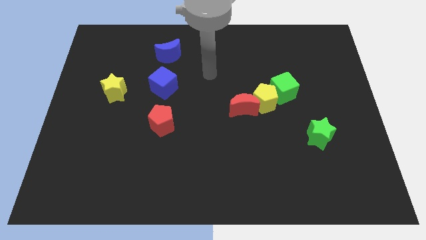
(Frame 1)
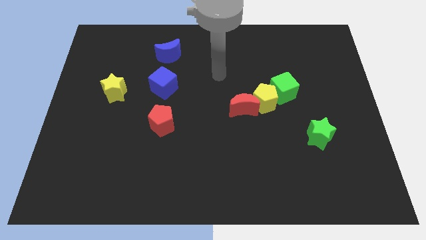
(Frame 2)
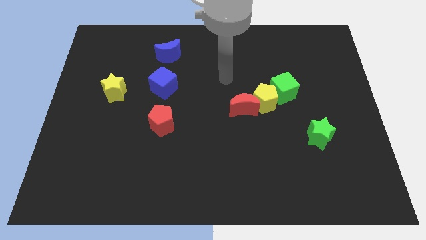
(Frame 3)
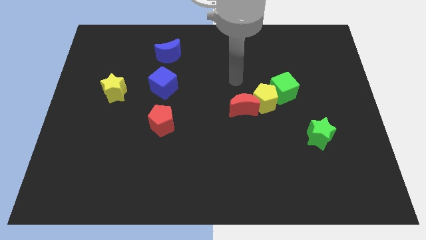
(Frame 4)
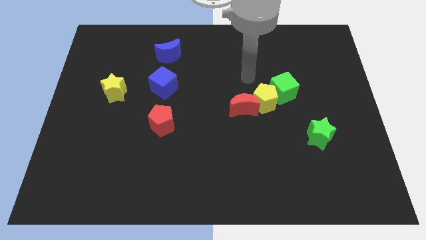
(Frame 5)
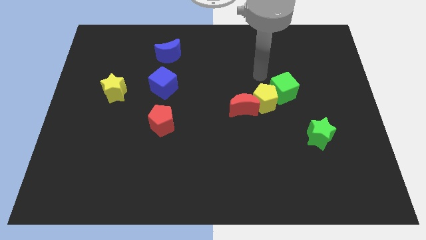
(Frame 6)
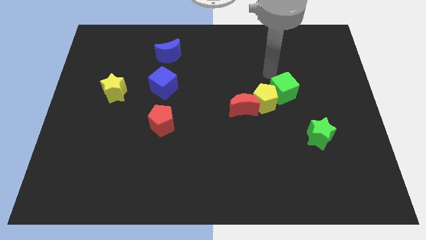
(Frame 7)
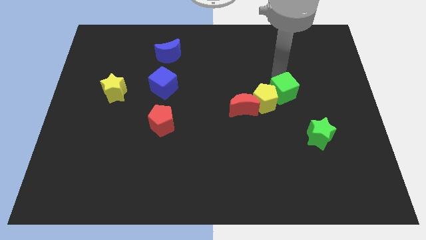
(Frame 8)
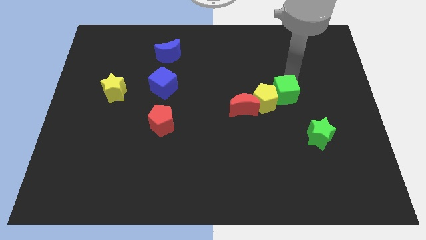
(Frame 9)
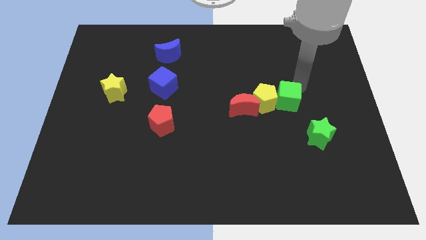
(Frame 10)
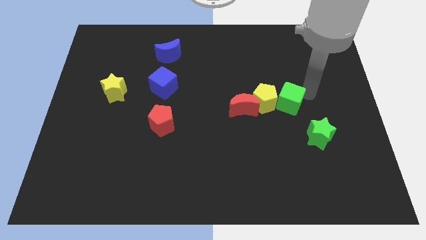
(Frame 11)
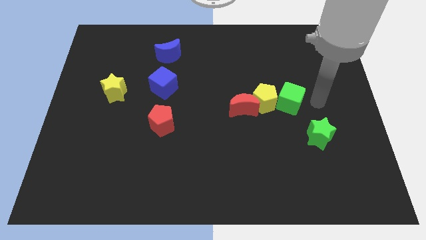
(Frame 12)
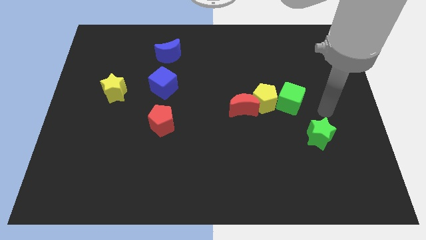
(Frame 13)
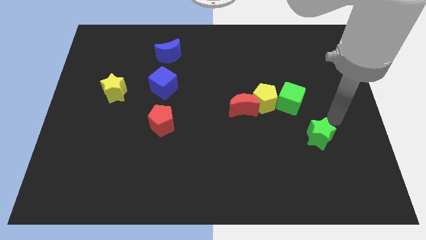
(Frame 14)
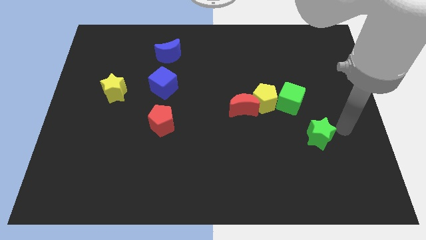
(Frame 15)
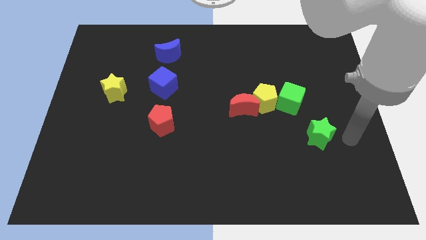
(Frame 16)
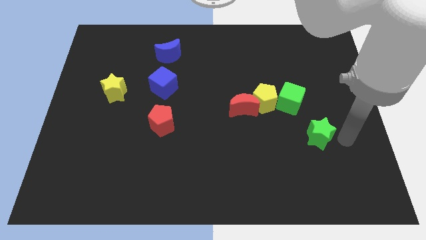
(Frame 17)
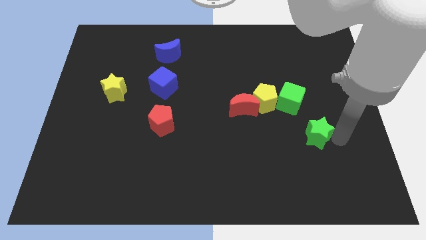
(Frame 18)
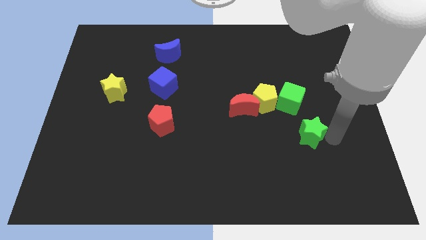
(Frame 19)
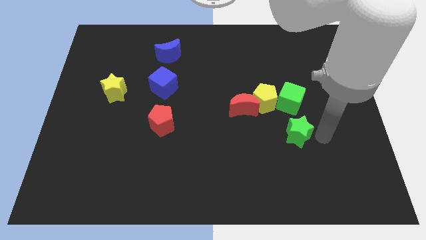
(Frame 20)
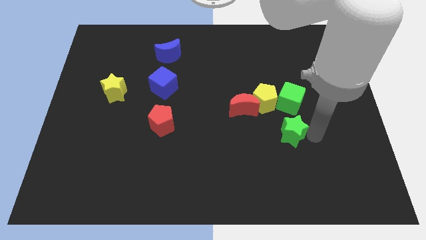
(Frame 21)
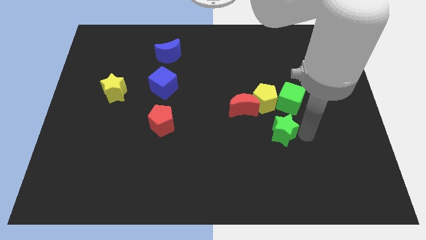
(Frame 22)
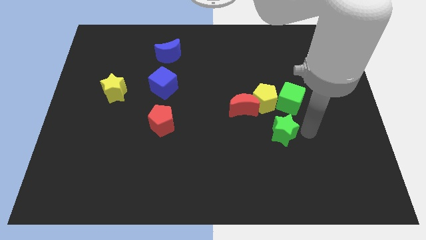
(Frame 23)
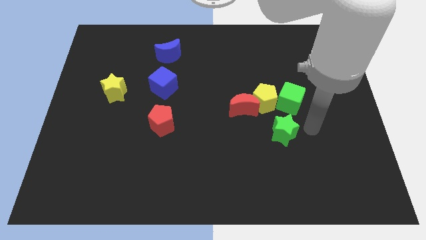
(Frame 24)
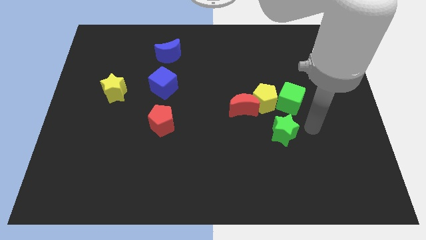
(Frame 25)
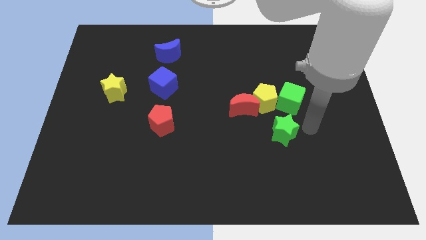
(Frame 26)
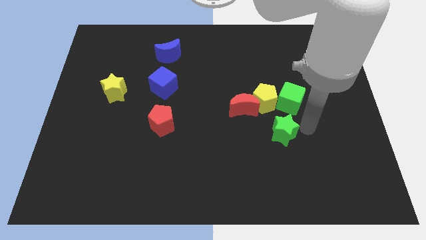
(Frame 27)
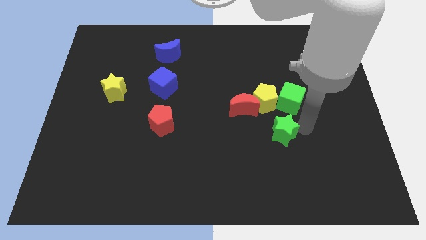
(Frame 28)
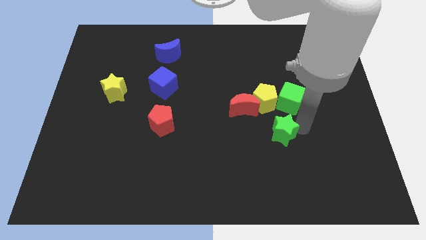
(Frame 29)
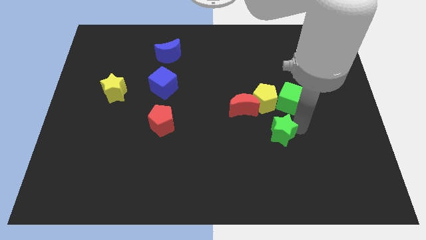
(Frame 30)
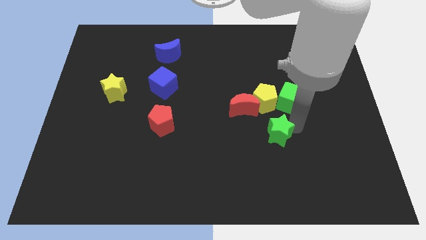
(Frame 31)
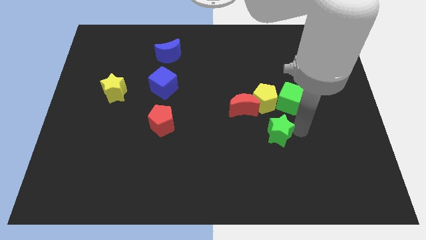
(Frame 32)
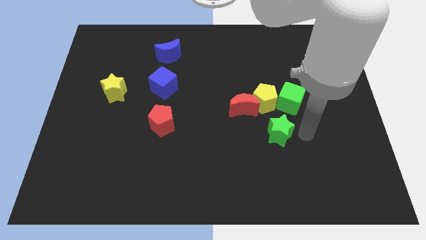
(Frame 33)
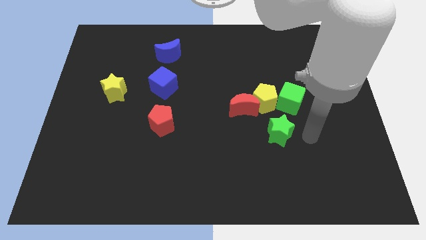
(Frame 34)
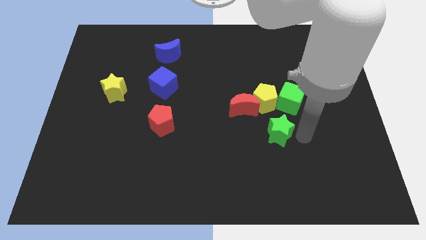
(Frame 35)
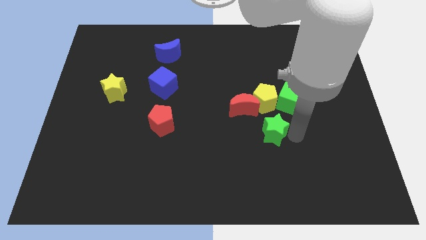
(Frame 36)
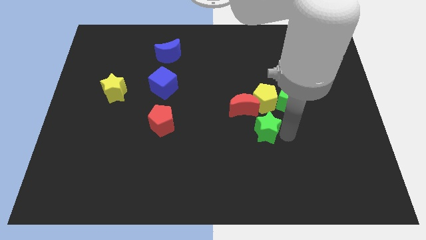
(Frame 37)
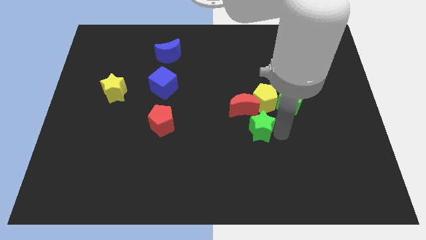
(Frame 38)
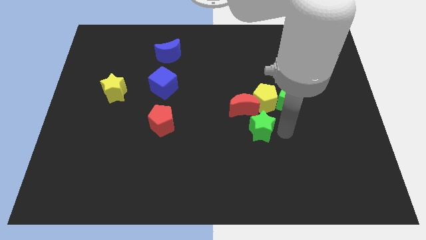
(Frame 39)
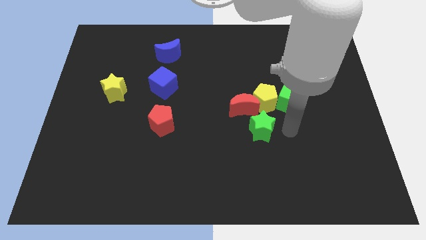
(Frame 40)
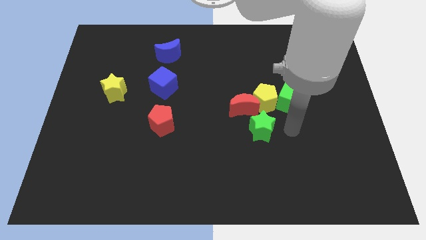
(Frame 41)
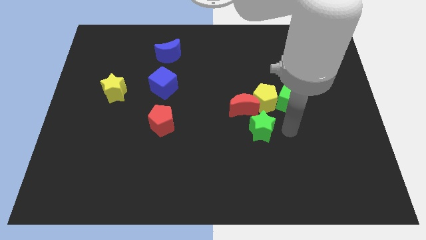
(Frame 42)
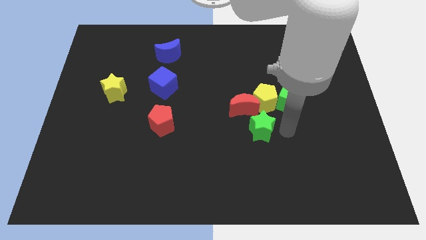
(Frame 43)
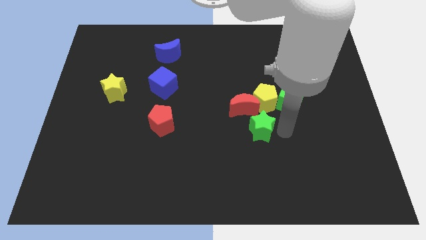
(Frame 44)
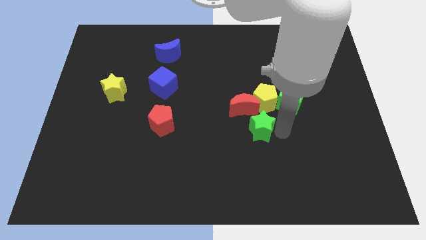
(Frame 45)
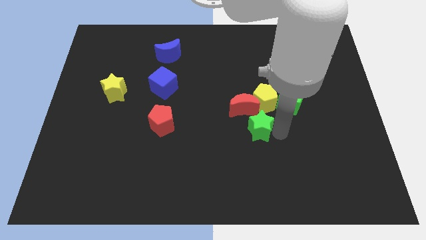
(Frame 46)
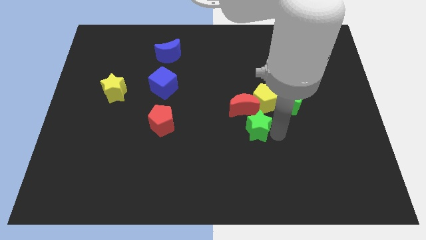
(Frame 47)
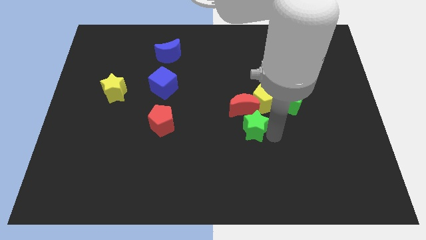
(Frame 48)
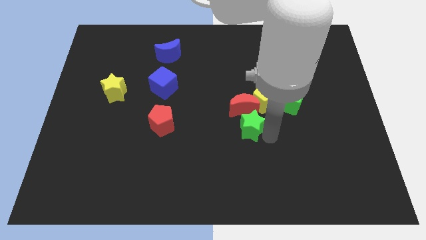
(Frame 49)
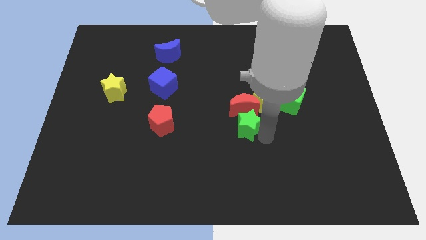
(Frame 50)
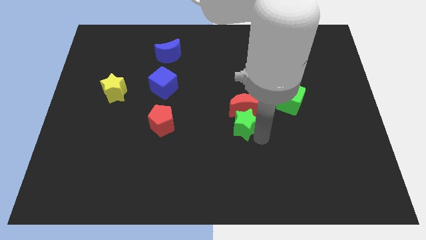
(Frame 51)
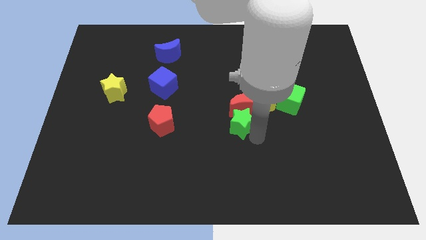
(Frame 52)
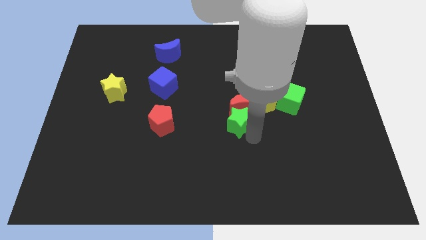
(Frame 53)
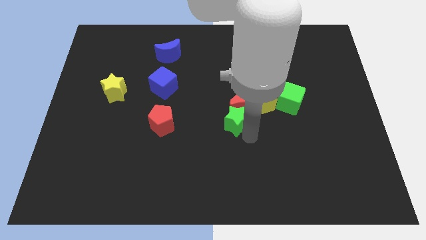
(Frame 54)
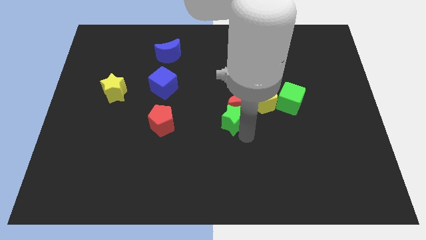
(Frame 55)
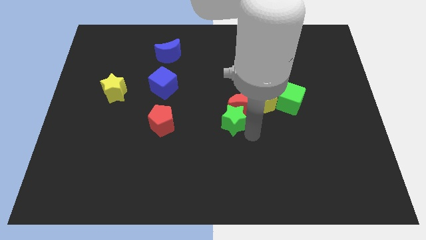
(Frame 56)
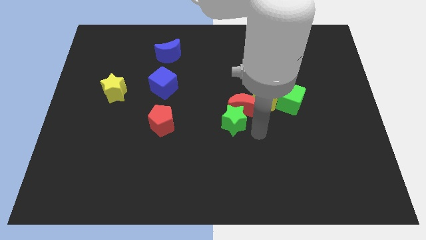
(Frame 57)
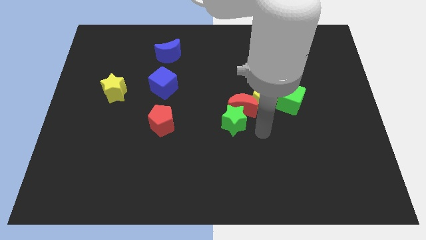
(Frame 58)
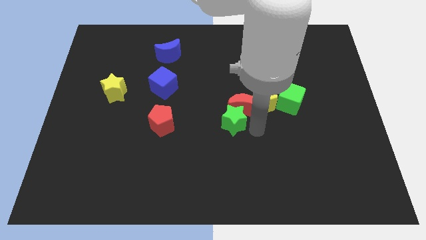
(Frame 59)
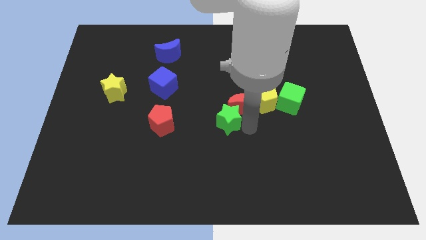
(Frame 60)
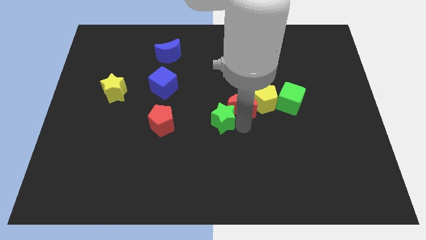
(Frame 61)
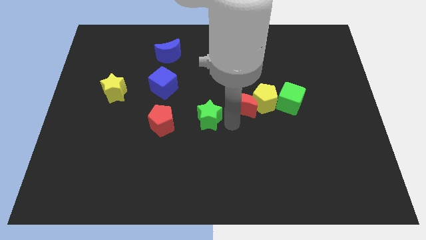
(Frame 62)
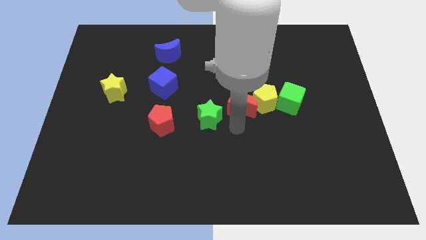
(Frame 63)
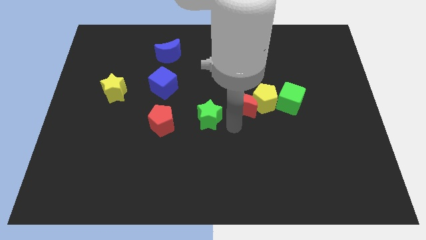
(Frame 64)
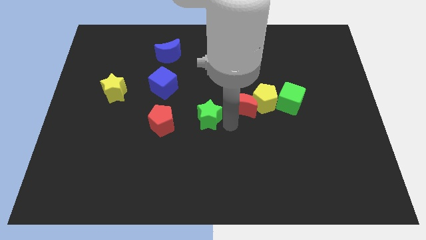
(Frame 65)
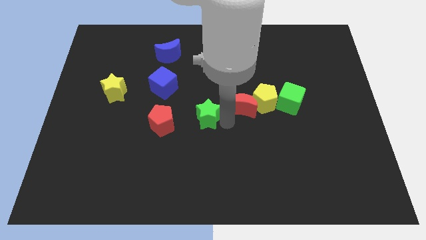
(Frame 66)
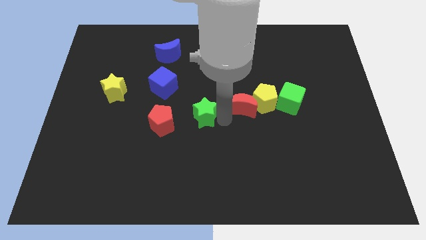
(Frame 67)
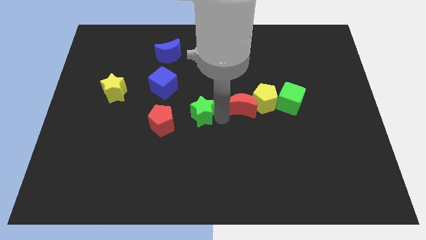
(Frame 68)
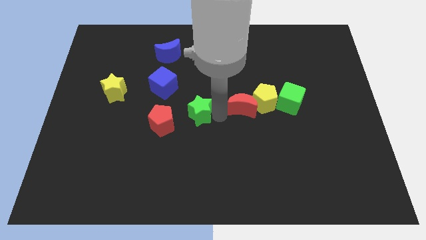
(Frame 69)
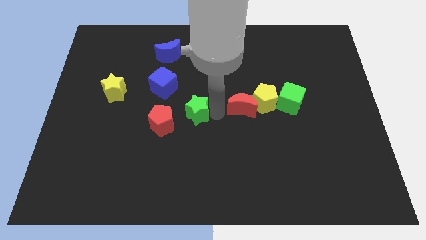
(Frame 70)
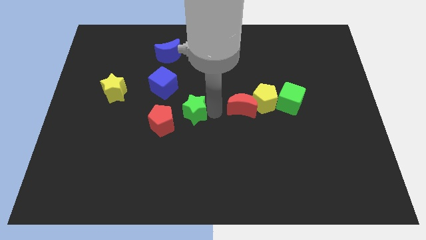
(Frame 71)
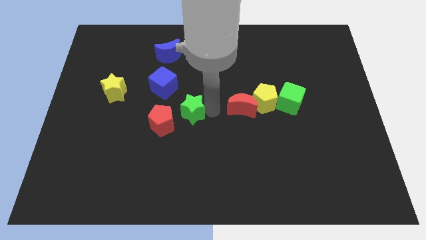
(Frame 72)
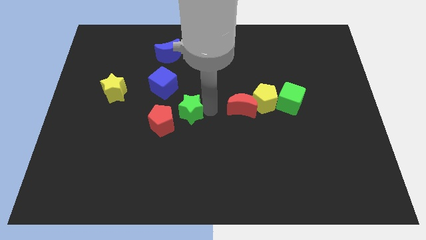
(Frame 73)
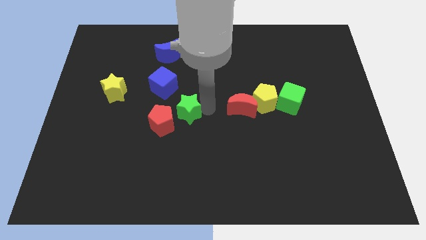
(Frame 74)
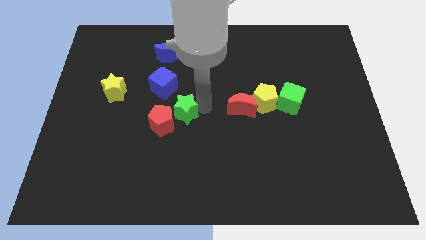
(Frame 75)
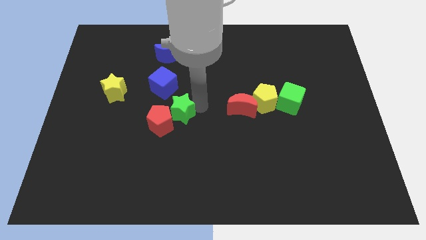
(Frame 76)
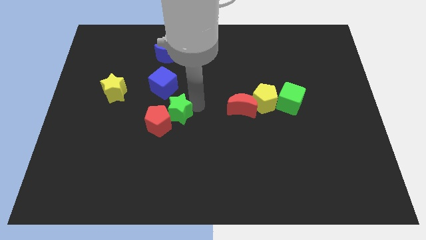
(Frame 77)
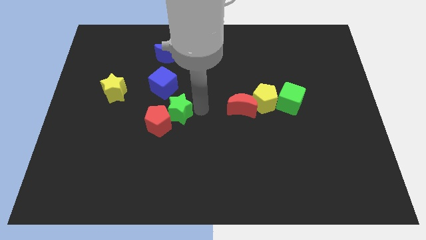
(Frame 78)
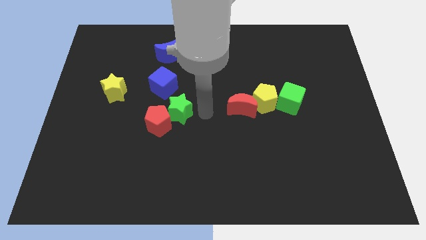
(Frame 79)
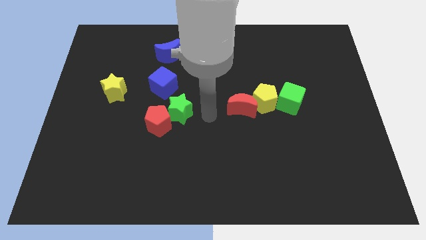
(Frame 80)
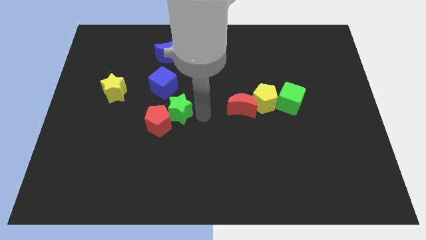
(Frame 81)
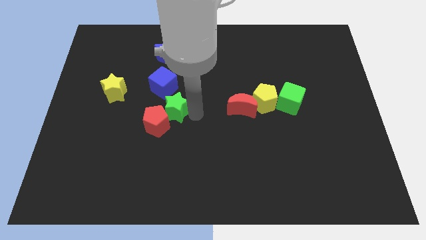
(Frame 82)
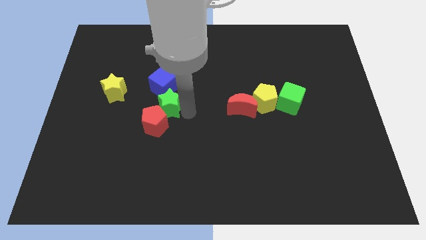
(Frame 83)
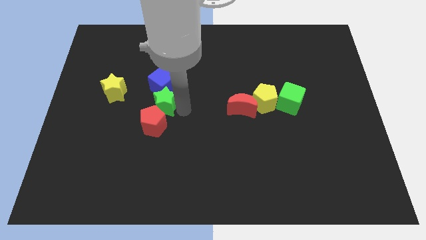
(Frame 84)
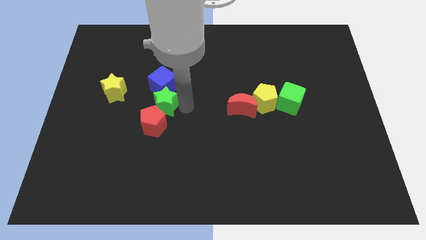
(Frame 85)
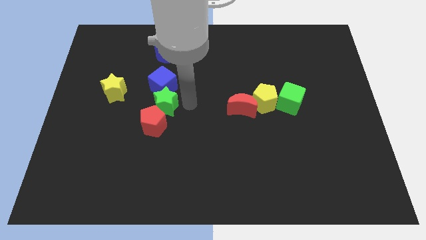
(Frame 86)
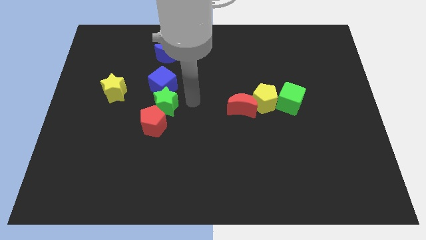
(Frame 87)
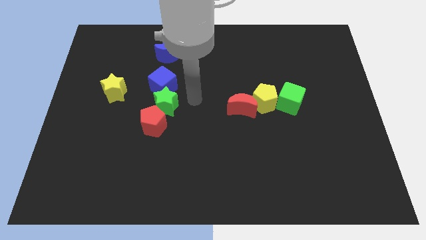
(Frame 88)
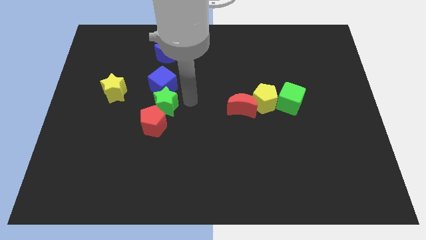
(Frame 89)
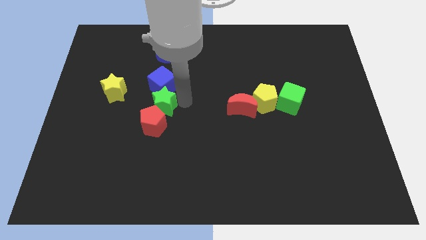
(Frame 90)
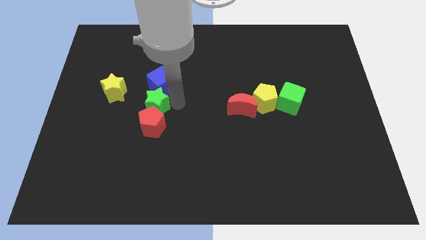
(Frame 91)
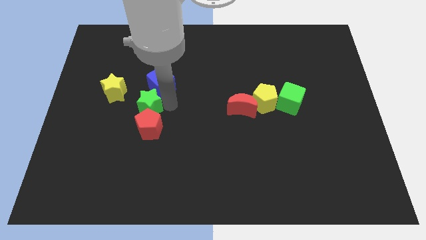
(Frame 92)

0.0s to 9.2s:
push the green star to the bottom right side of the yellow star
